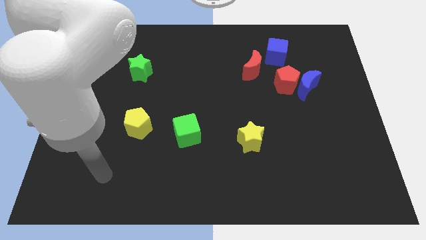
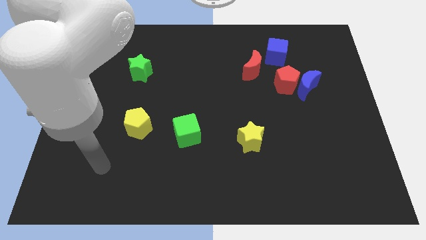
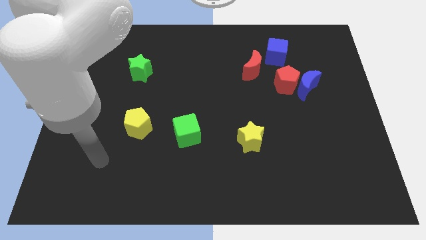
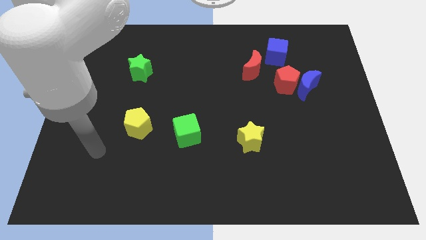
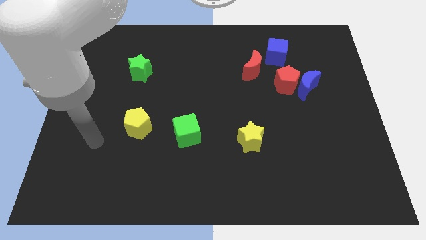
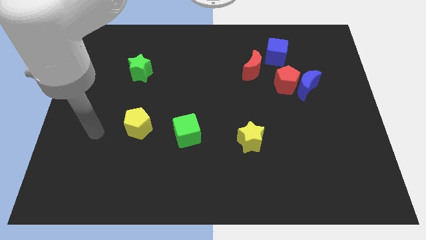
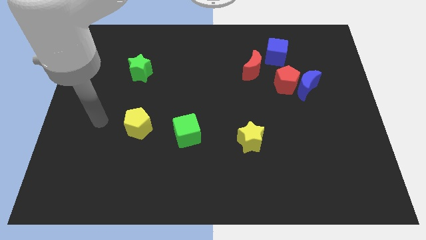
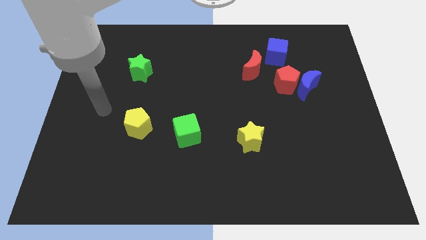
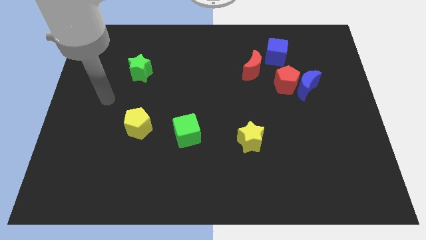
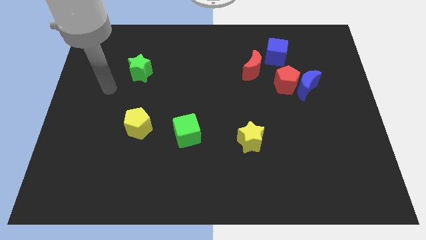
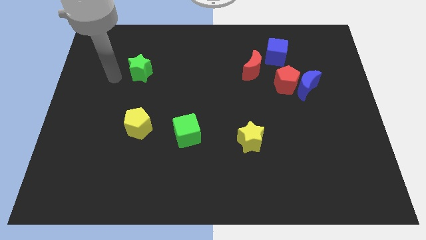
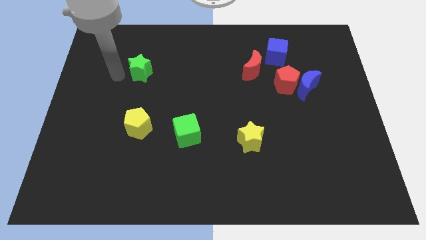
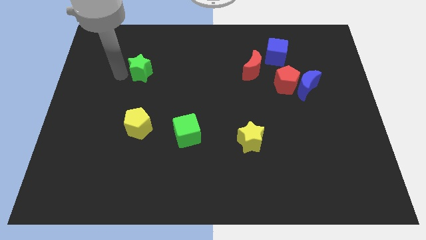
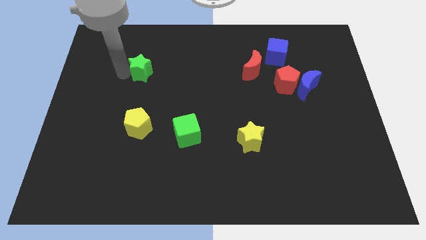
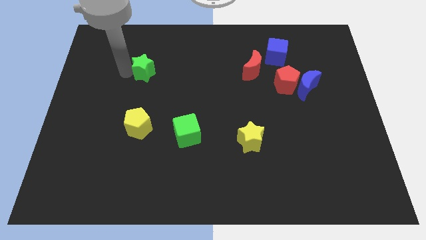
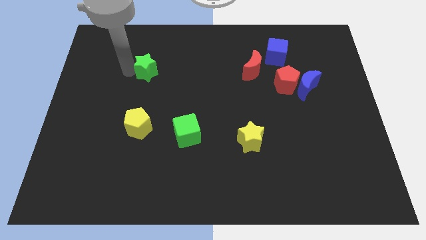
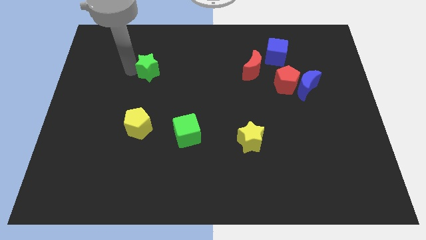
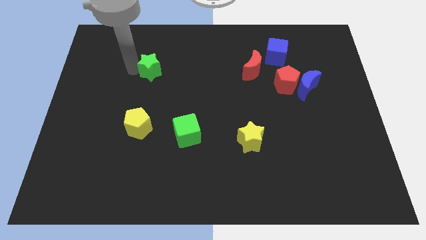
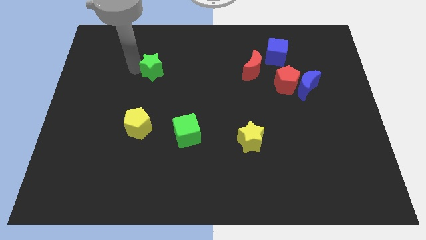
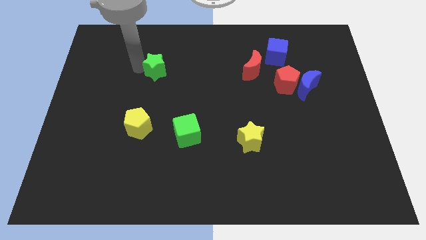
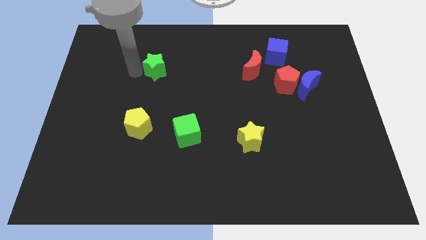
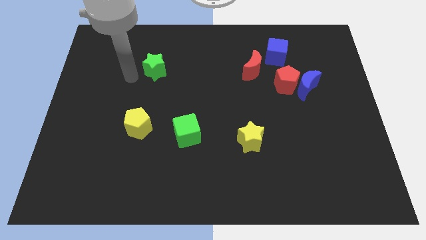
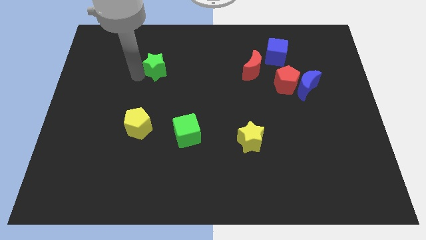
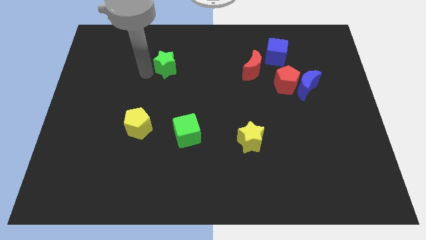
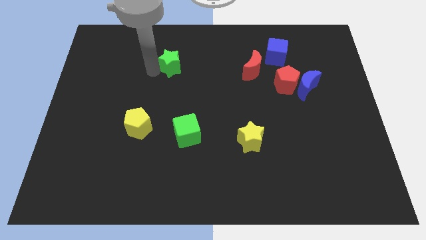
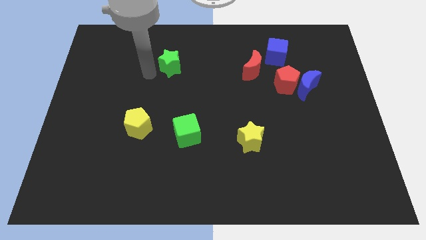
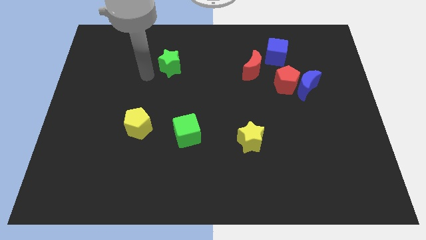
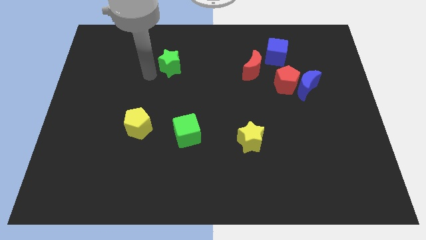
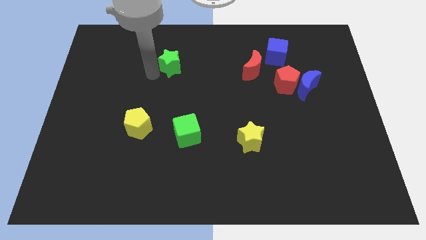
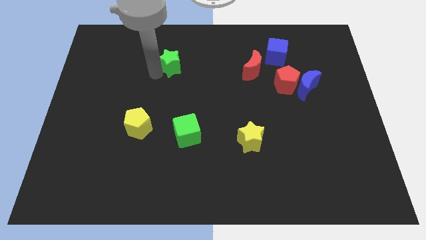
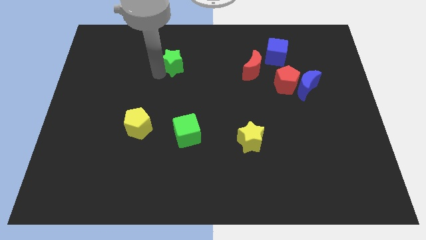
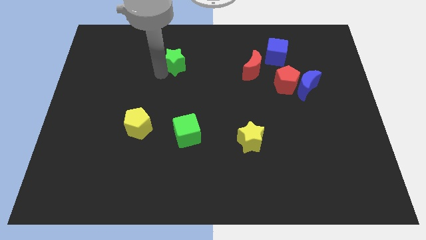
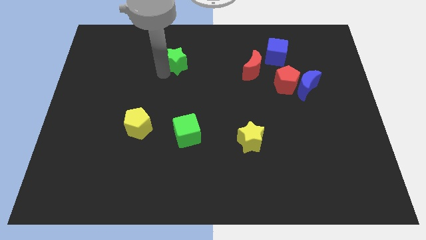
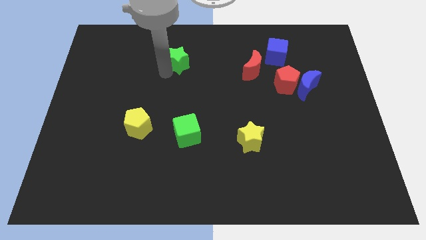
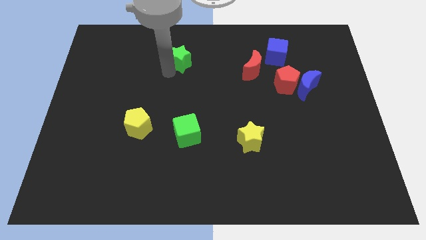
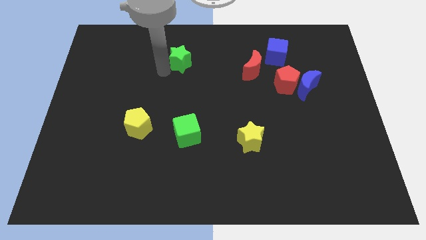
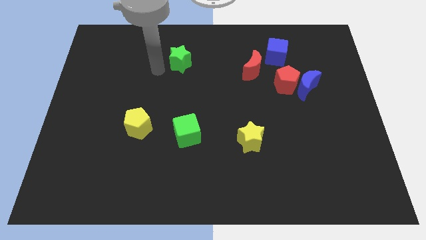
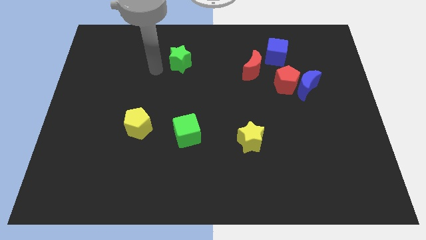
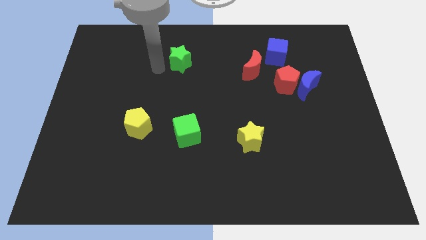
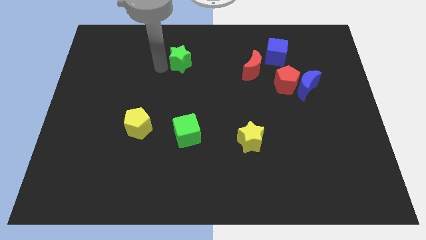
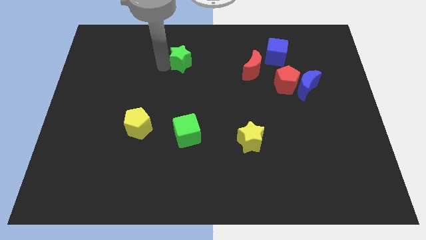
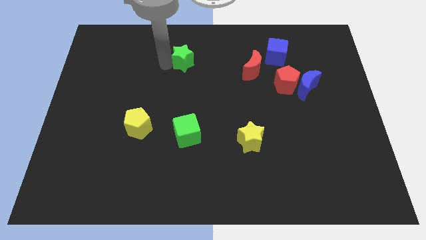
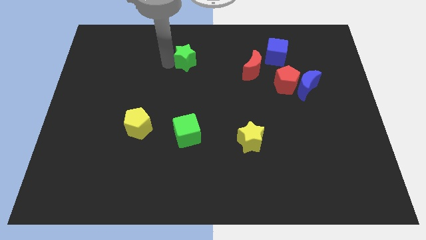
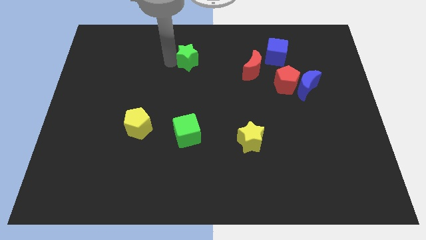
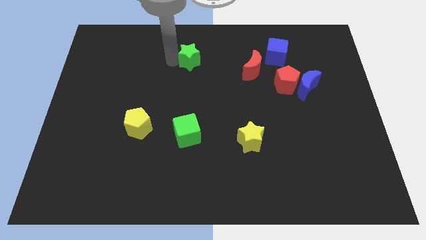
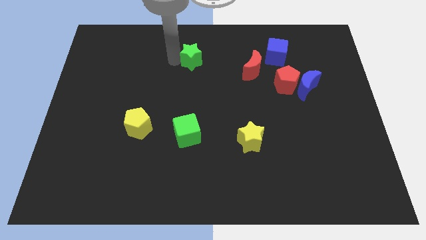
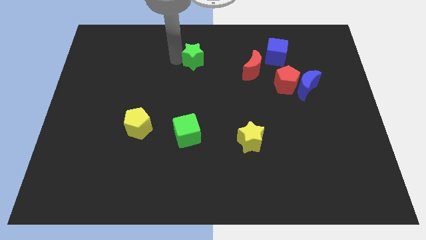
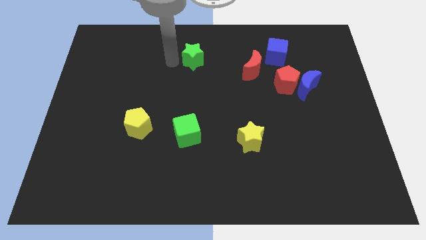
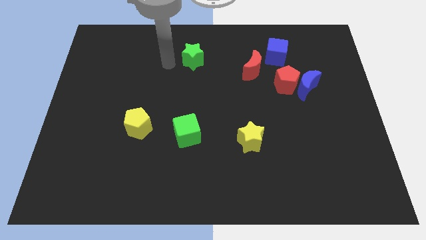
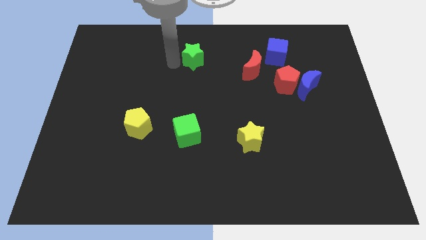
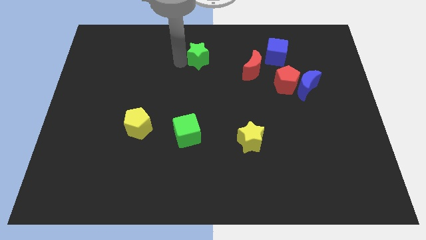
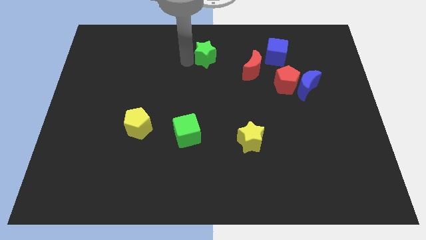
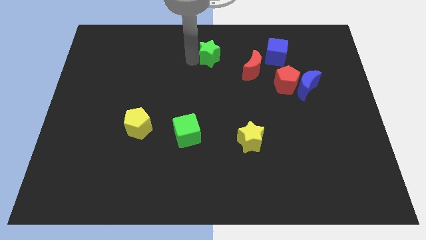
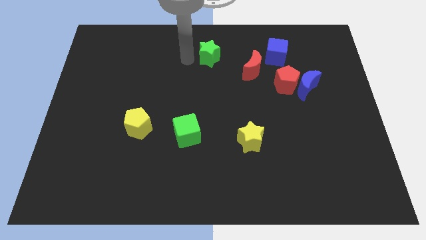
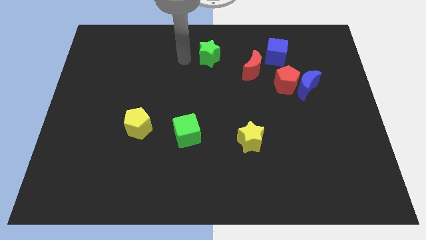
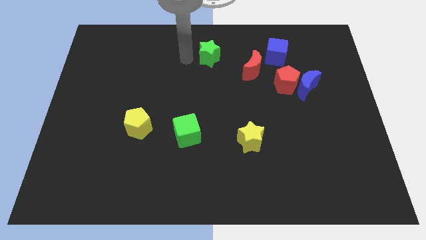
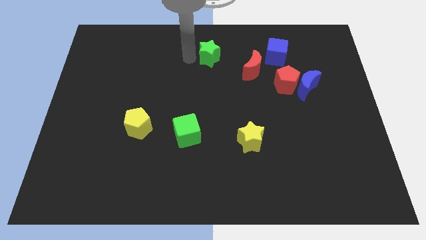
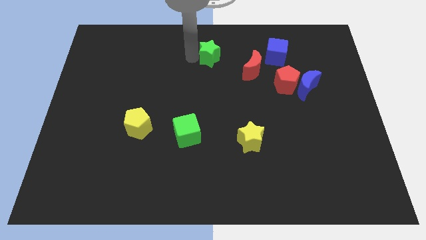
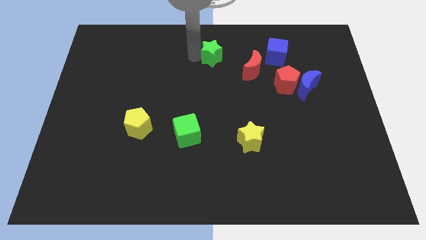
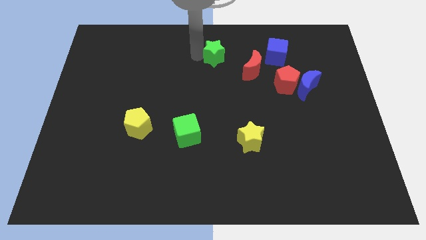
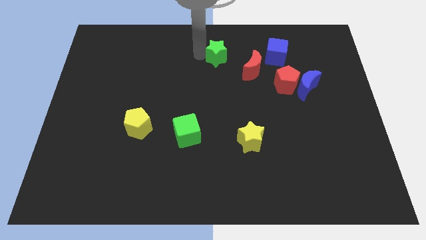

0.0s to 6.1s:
push the green star left of the blue cube

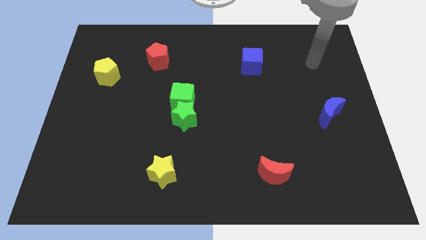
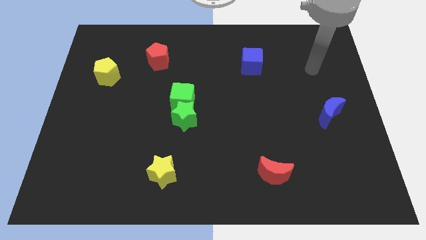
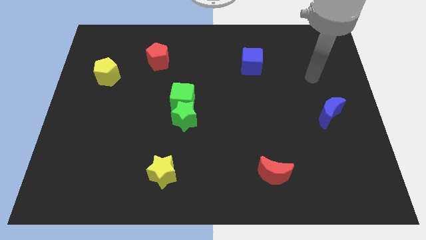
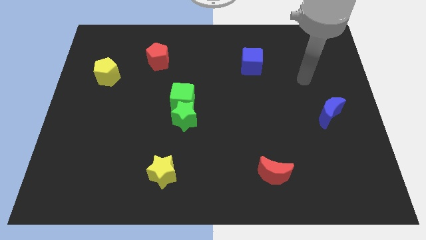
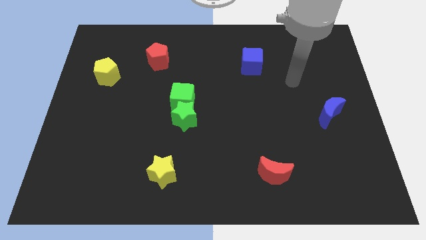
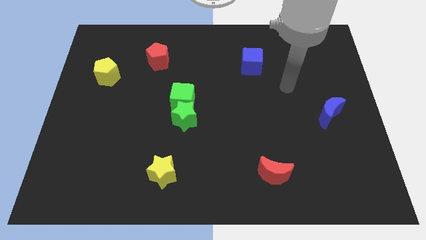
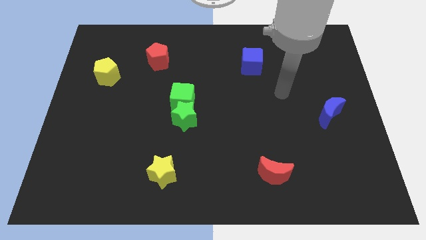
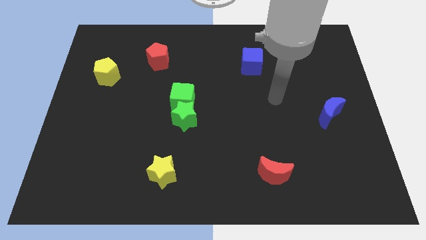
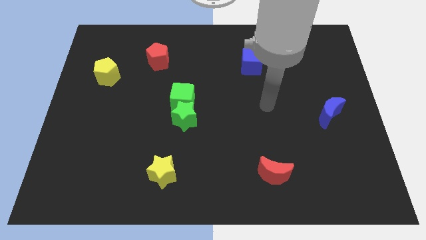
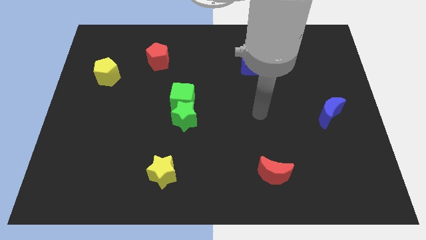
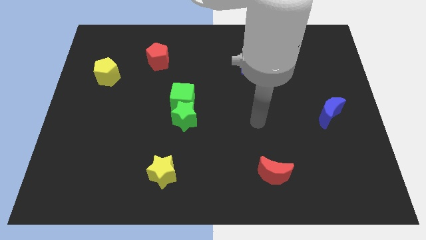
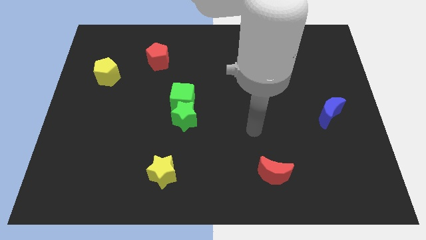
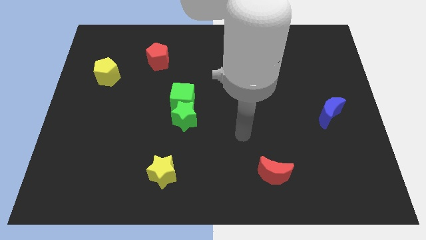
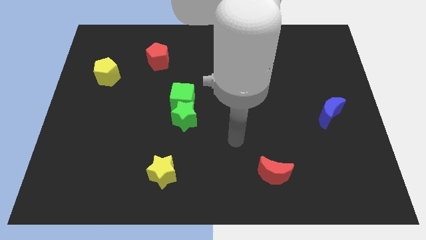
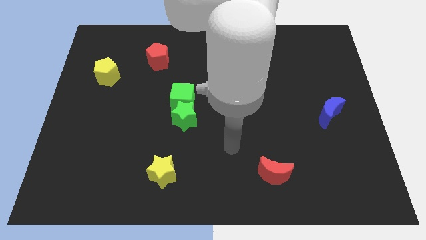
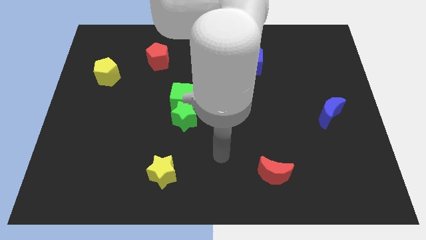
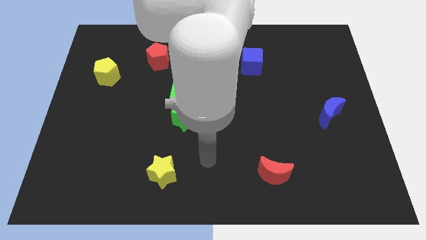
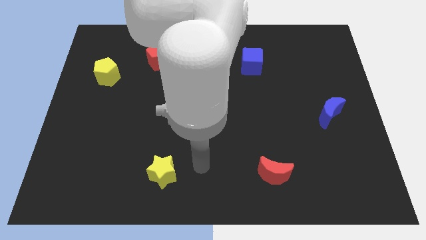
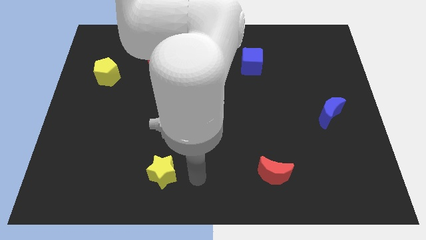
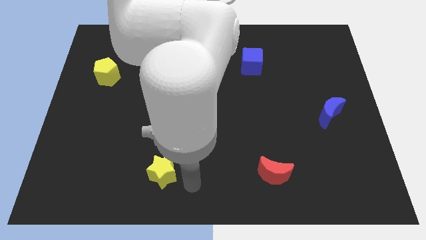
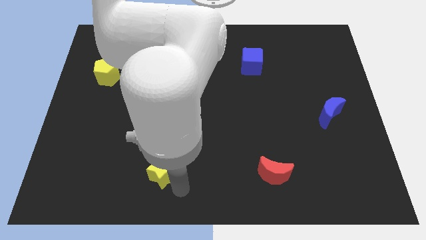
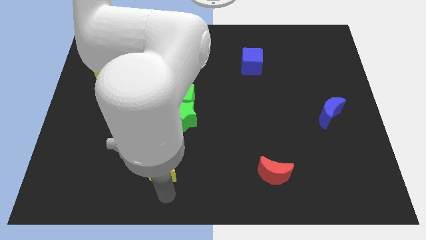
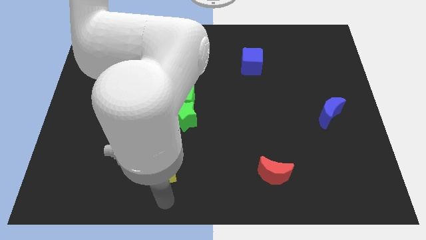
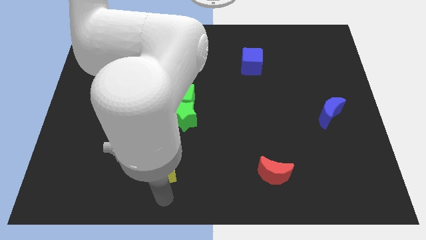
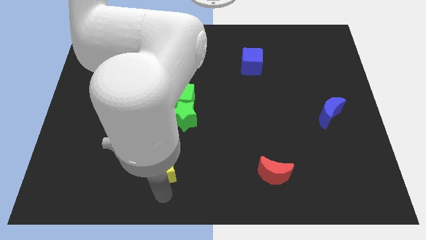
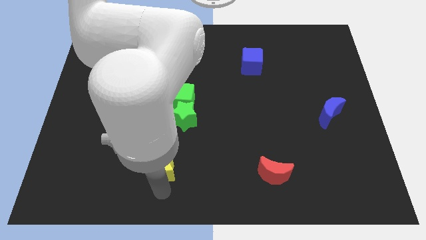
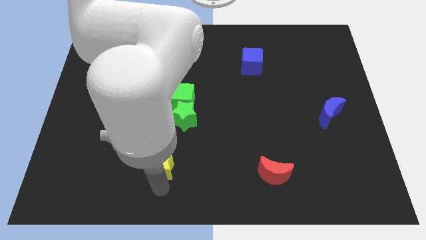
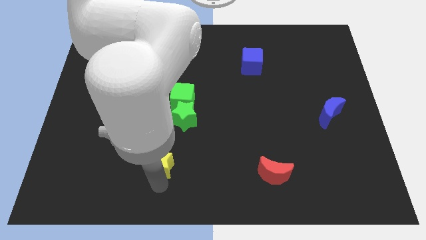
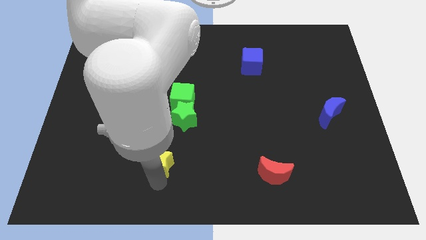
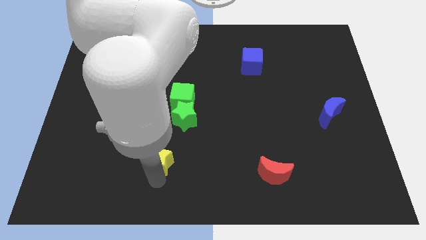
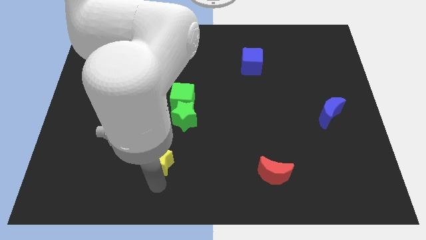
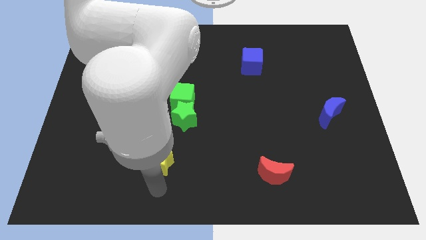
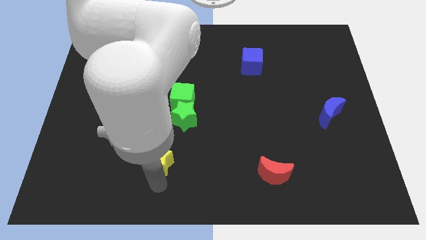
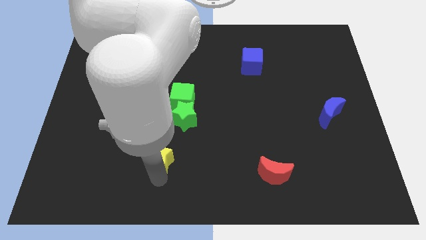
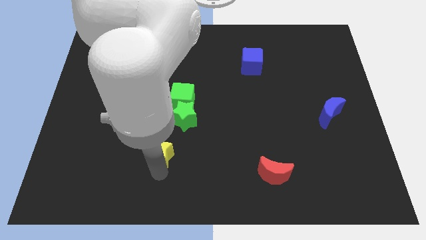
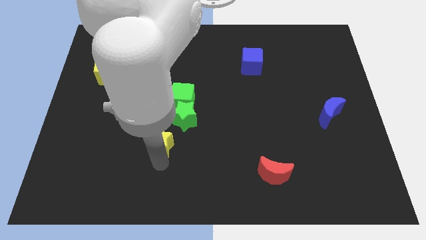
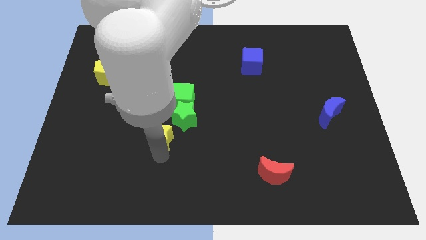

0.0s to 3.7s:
slide the yellow star to the bottom left of the green cube
